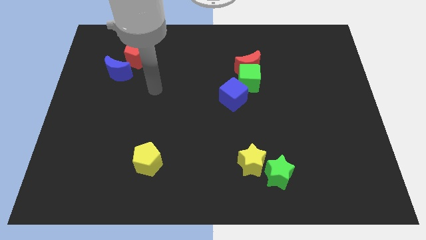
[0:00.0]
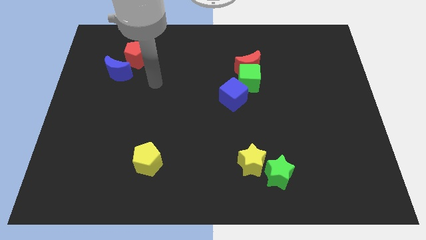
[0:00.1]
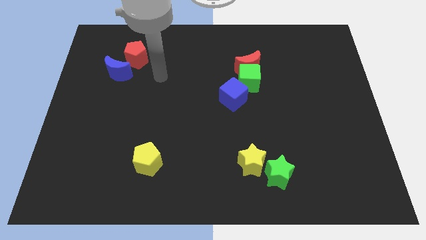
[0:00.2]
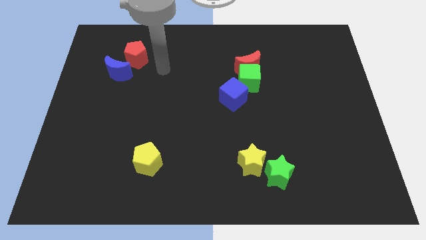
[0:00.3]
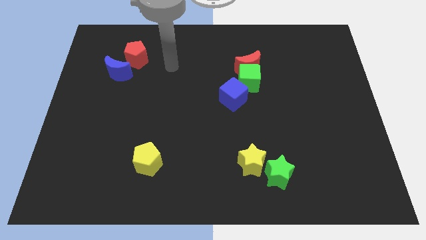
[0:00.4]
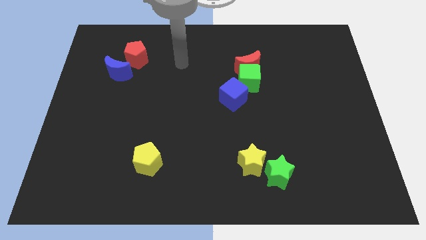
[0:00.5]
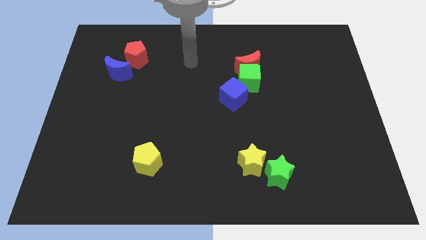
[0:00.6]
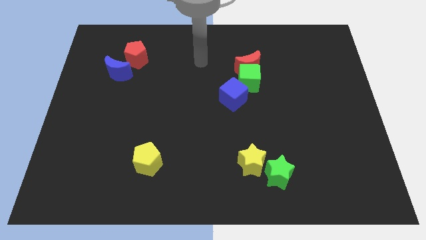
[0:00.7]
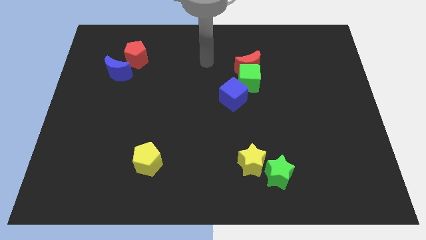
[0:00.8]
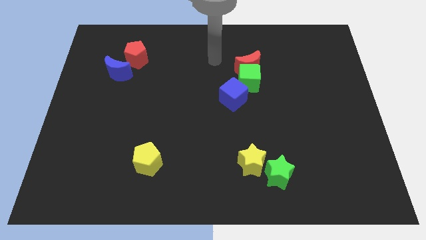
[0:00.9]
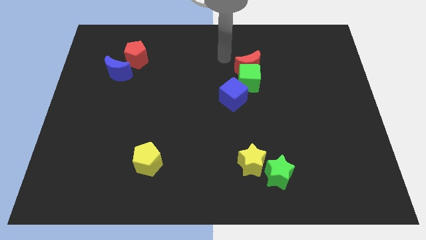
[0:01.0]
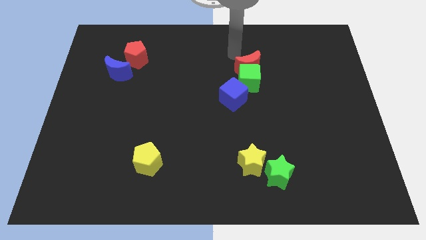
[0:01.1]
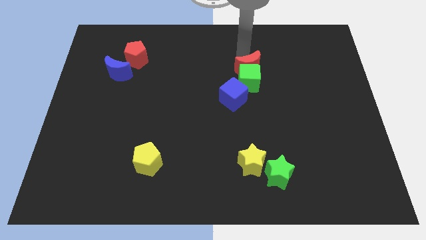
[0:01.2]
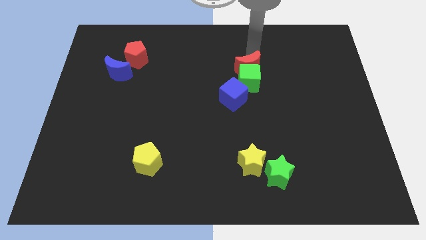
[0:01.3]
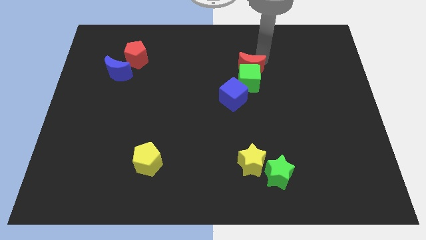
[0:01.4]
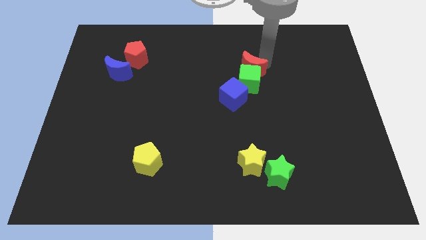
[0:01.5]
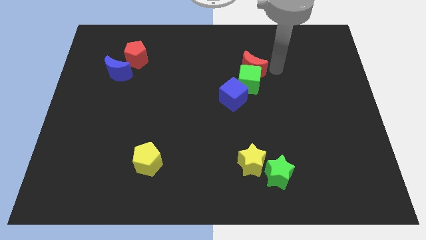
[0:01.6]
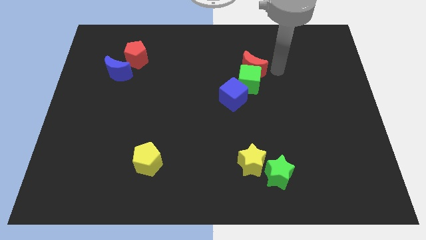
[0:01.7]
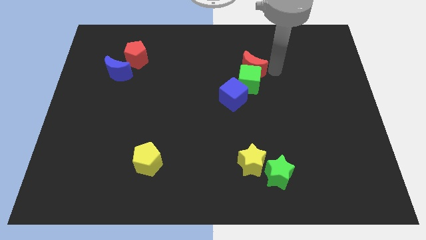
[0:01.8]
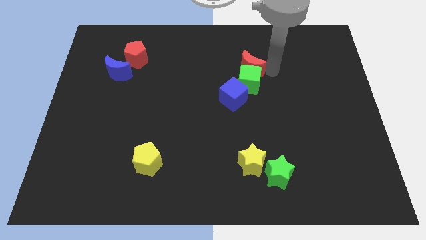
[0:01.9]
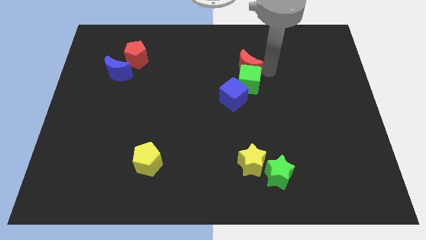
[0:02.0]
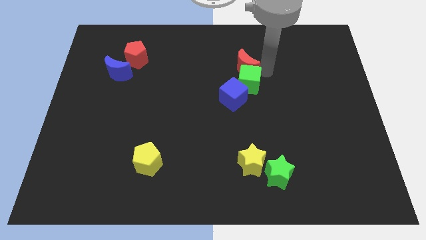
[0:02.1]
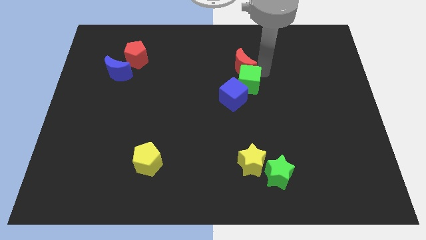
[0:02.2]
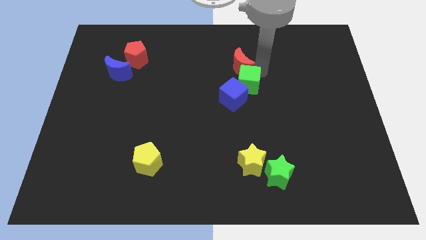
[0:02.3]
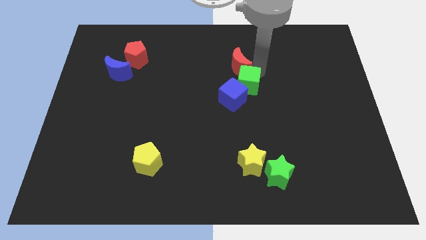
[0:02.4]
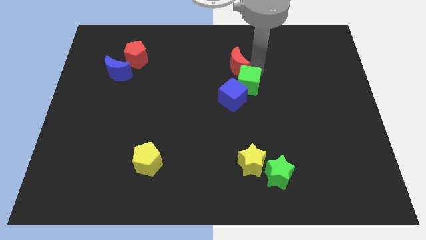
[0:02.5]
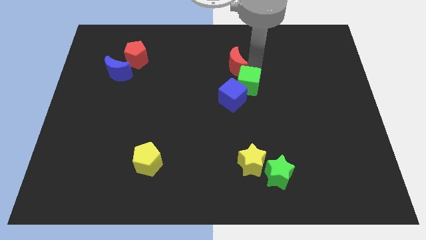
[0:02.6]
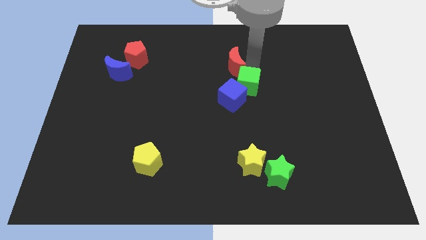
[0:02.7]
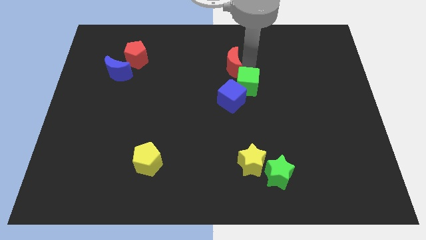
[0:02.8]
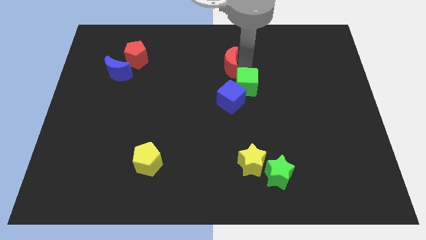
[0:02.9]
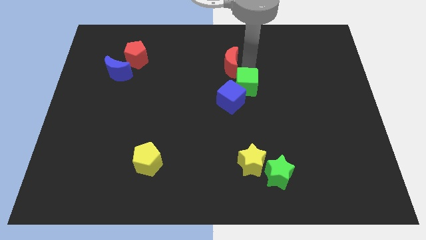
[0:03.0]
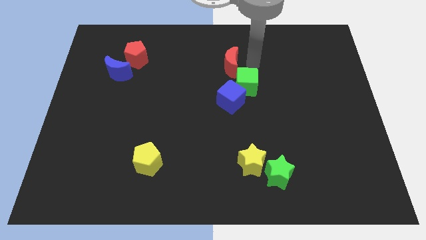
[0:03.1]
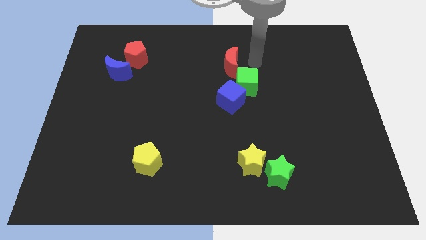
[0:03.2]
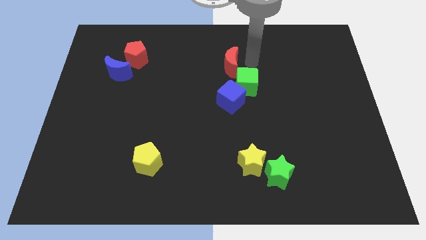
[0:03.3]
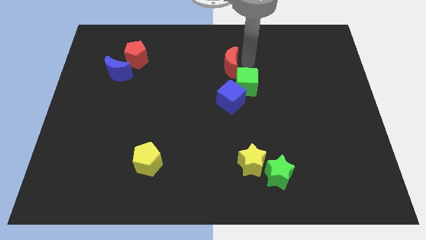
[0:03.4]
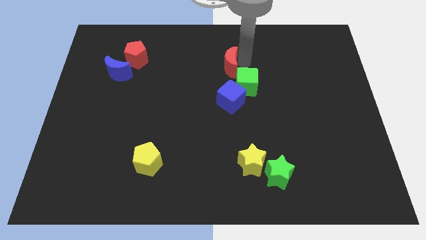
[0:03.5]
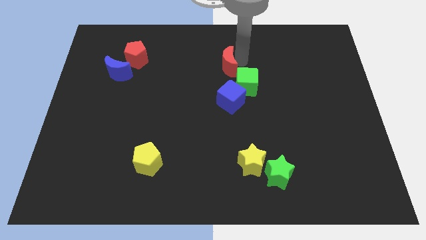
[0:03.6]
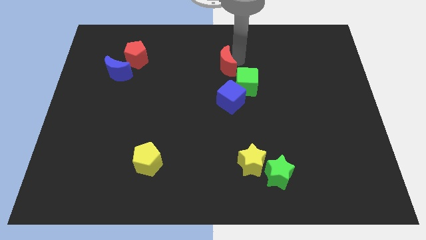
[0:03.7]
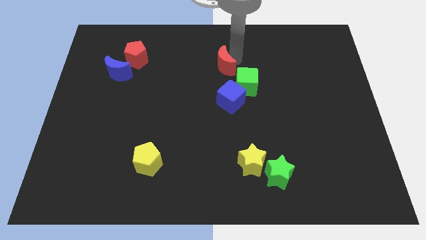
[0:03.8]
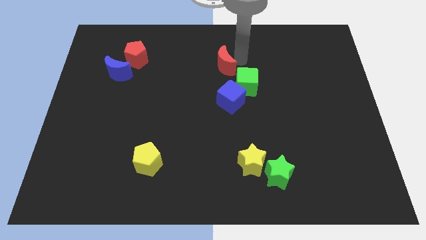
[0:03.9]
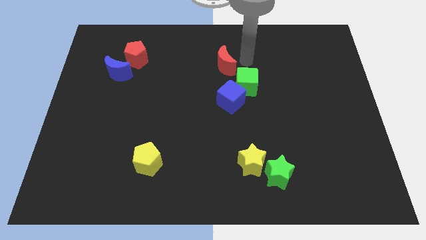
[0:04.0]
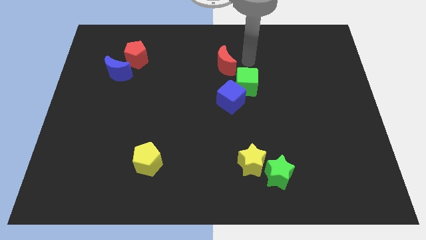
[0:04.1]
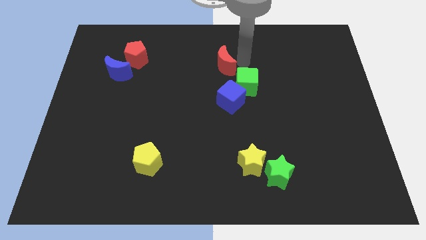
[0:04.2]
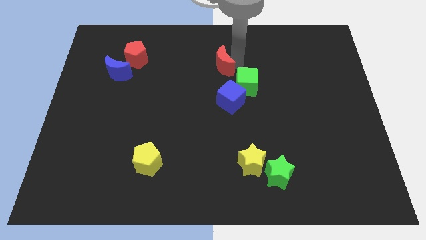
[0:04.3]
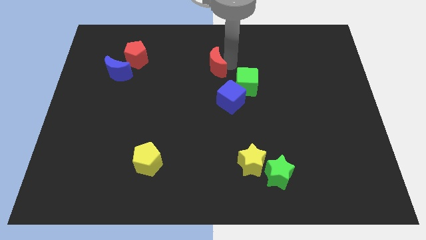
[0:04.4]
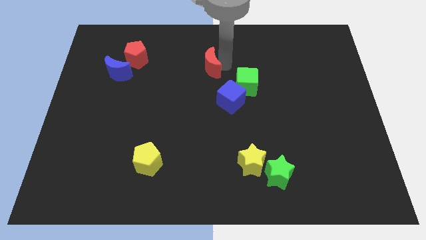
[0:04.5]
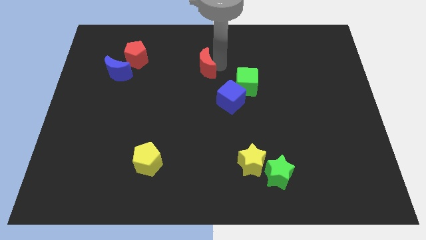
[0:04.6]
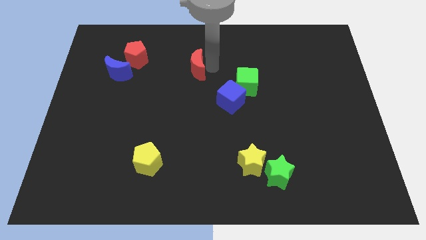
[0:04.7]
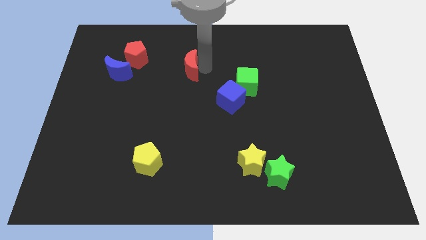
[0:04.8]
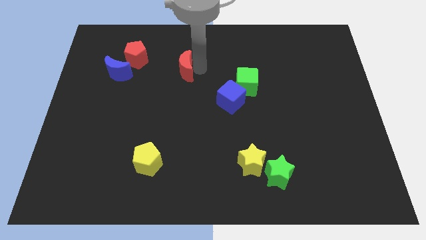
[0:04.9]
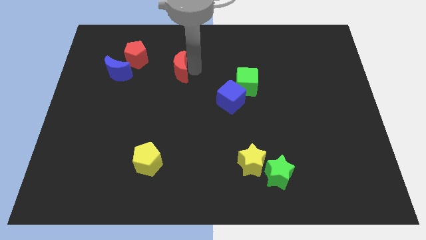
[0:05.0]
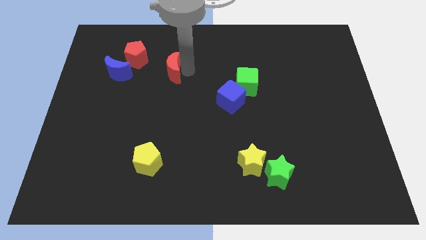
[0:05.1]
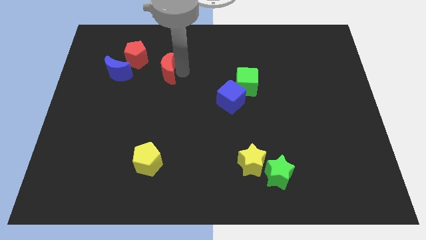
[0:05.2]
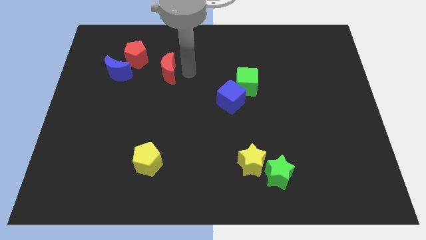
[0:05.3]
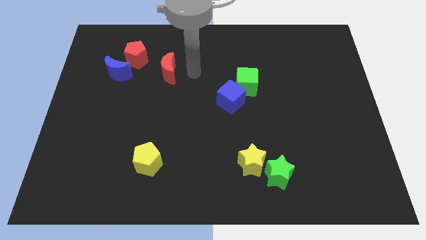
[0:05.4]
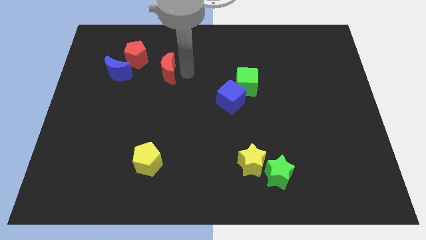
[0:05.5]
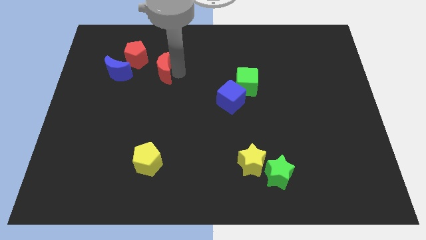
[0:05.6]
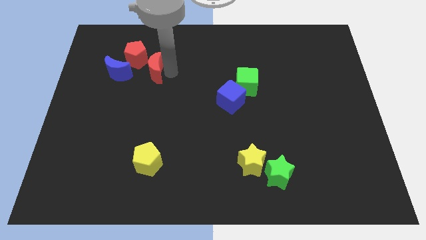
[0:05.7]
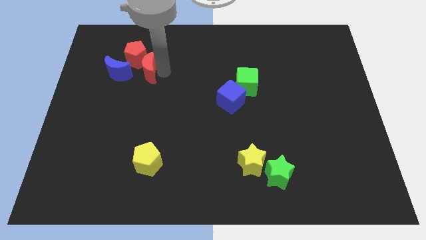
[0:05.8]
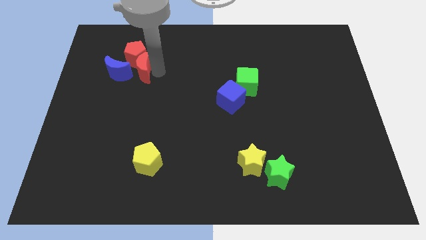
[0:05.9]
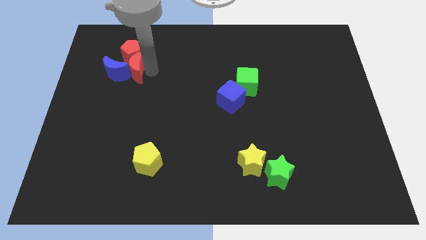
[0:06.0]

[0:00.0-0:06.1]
put the red moon next to the blue moon

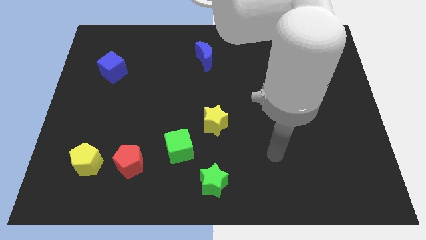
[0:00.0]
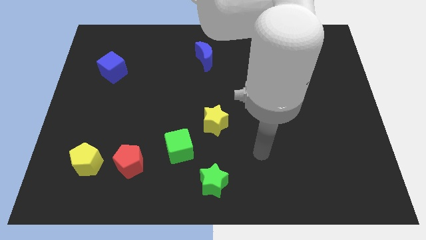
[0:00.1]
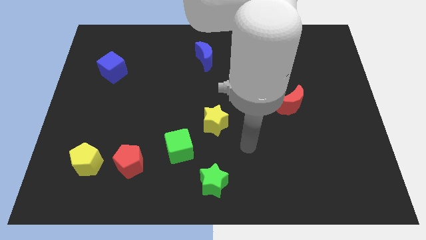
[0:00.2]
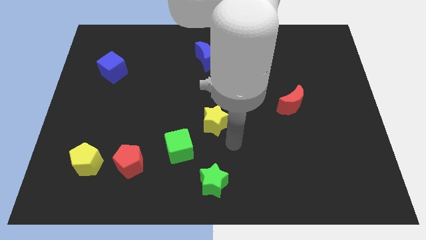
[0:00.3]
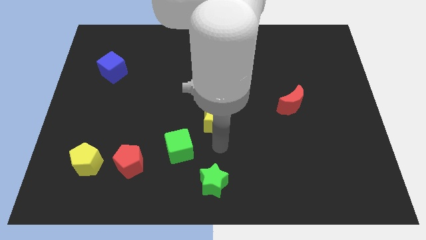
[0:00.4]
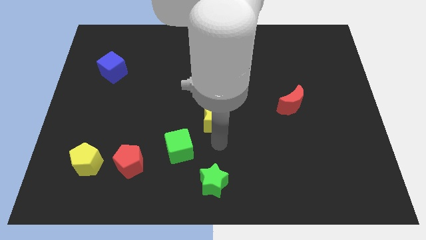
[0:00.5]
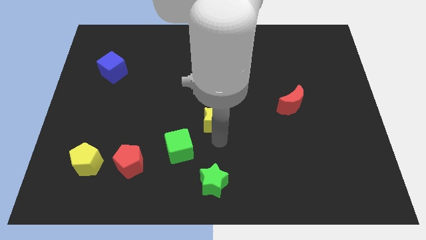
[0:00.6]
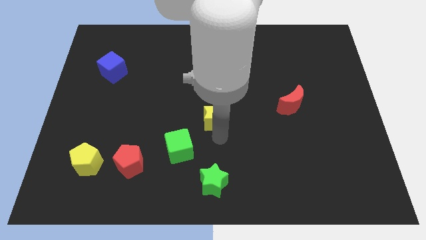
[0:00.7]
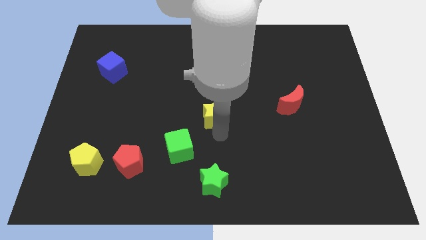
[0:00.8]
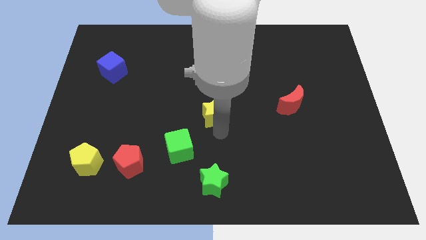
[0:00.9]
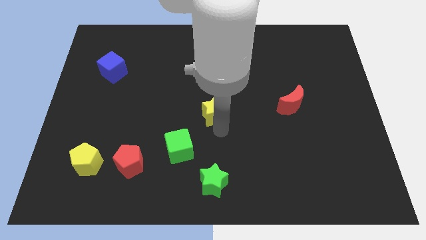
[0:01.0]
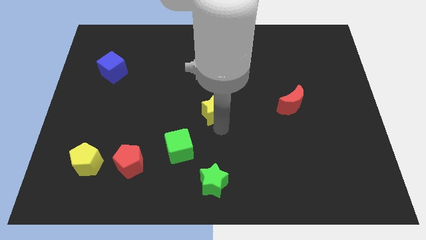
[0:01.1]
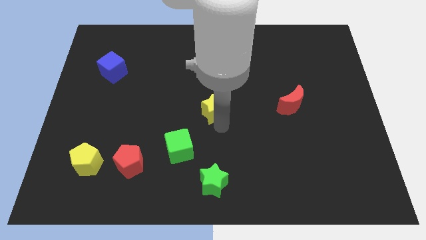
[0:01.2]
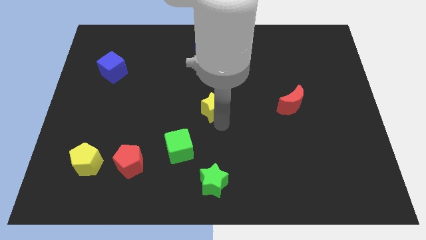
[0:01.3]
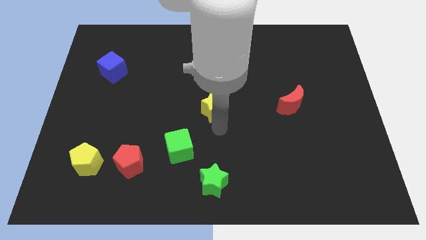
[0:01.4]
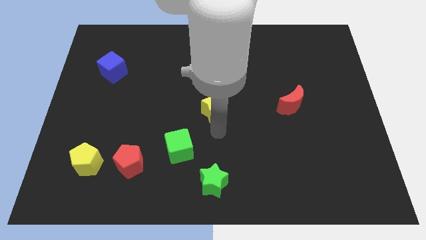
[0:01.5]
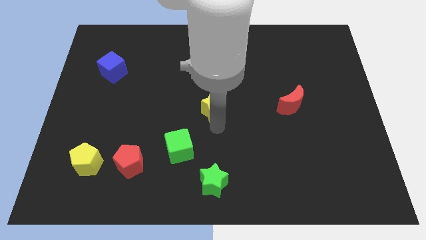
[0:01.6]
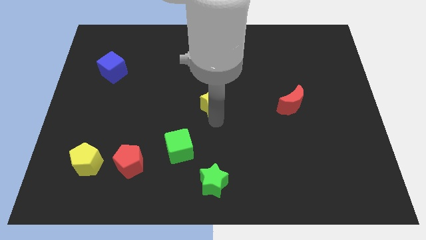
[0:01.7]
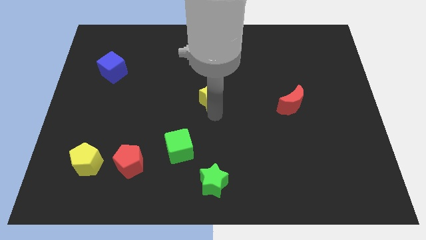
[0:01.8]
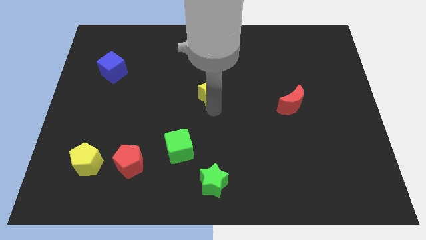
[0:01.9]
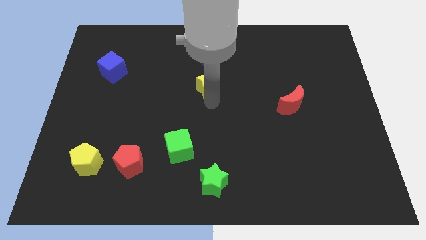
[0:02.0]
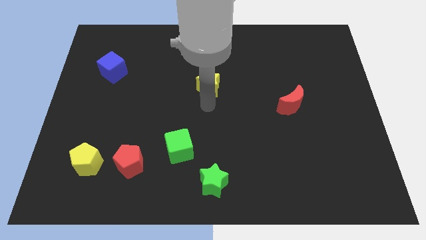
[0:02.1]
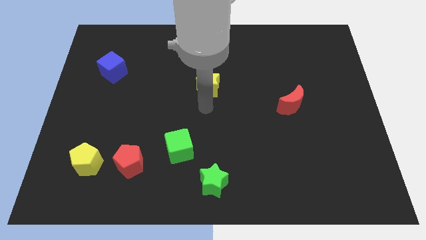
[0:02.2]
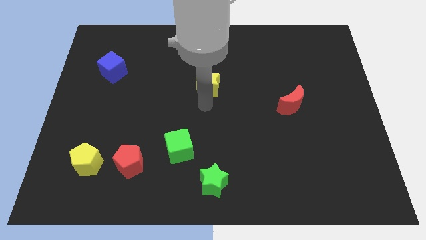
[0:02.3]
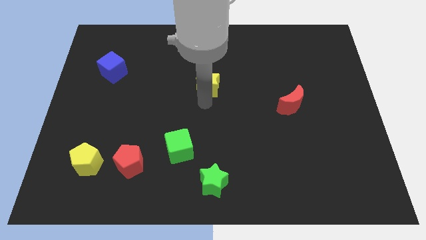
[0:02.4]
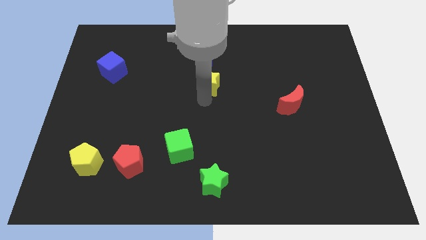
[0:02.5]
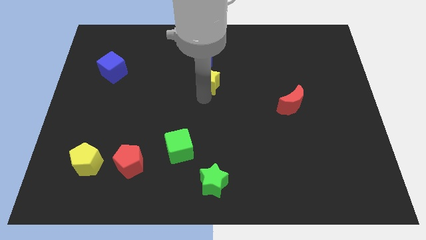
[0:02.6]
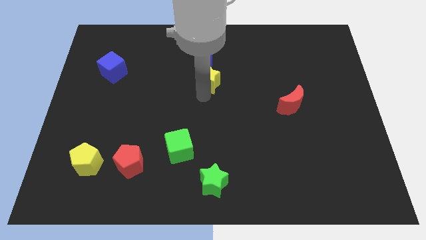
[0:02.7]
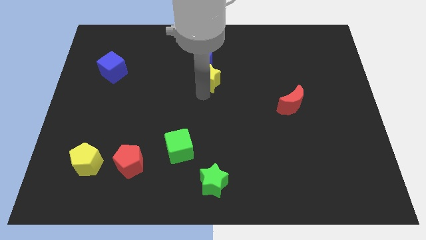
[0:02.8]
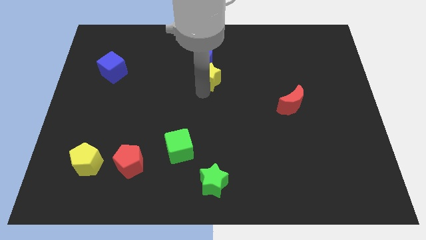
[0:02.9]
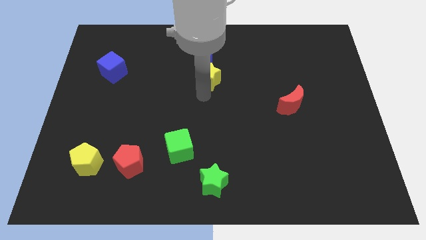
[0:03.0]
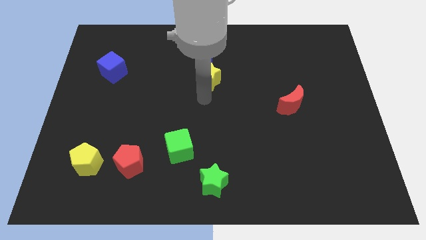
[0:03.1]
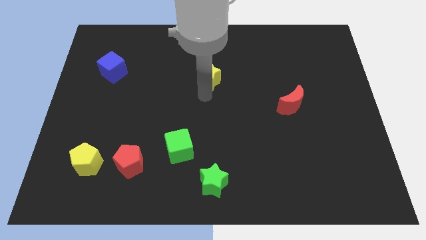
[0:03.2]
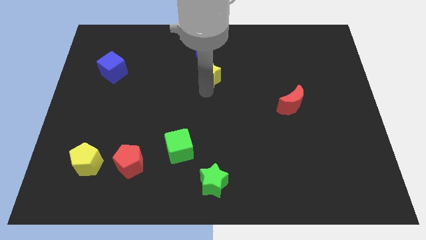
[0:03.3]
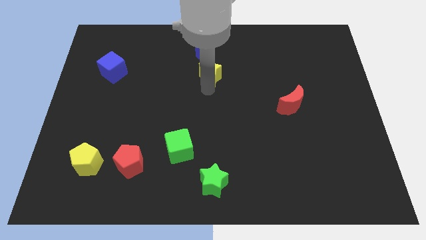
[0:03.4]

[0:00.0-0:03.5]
put the yellow star towards the blue moon
